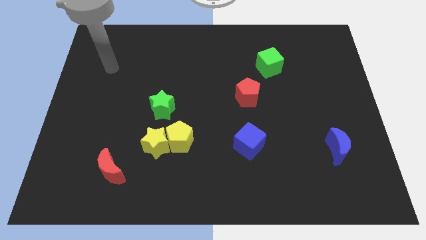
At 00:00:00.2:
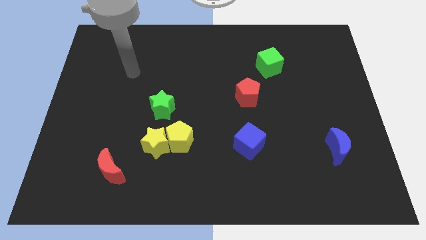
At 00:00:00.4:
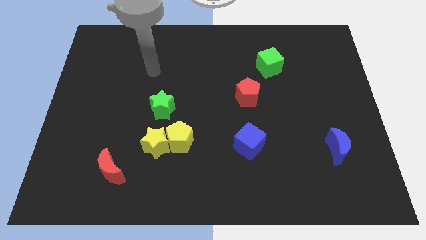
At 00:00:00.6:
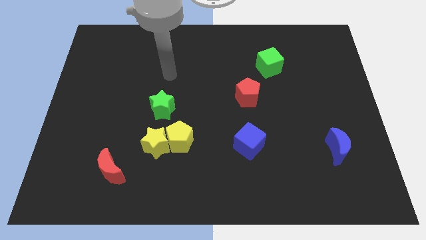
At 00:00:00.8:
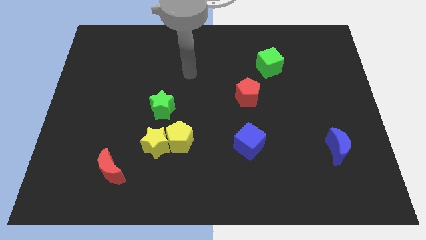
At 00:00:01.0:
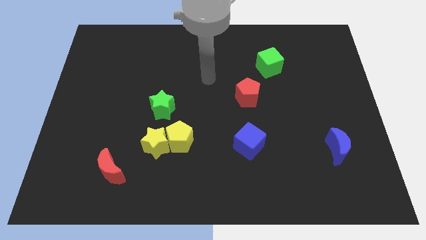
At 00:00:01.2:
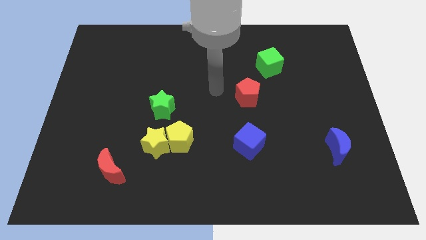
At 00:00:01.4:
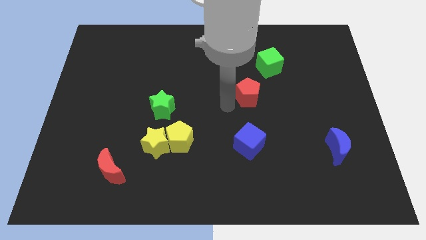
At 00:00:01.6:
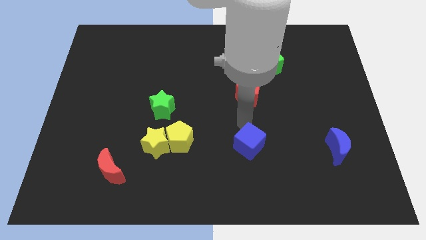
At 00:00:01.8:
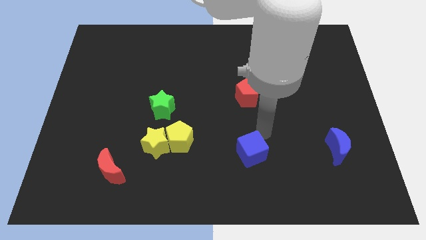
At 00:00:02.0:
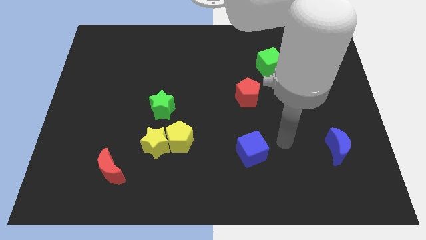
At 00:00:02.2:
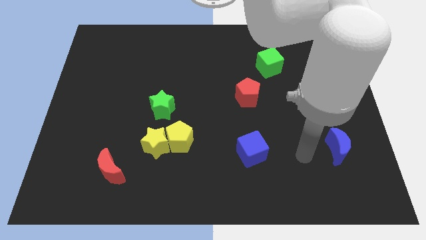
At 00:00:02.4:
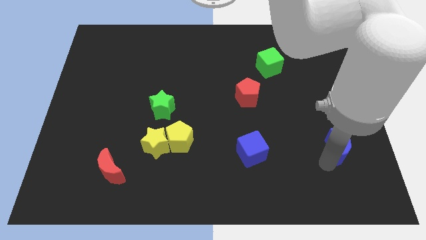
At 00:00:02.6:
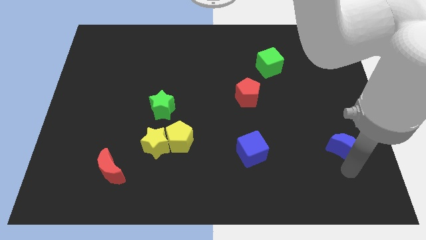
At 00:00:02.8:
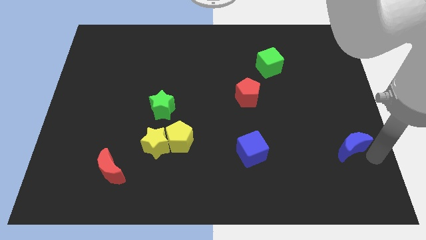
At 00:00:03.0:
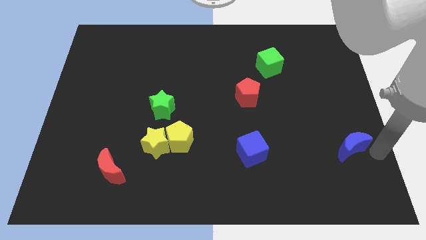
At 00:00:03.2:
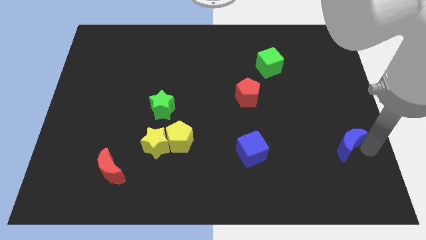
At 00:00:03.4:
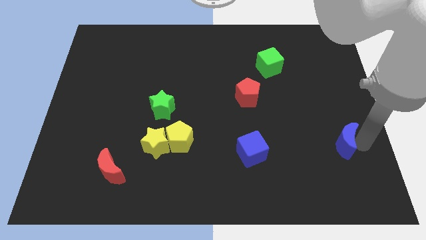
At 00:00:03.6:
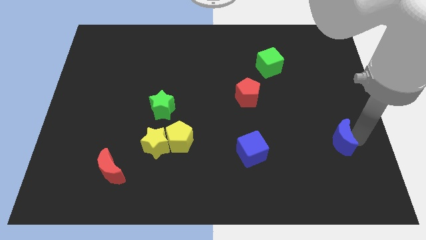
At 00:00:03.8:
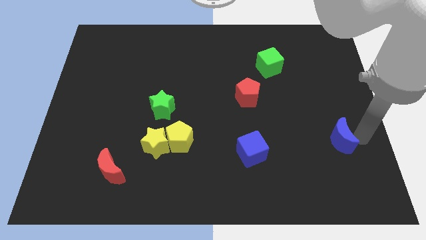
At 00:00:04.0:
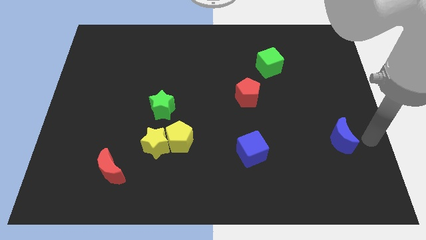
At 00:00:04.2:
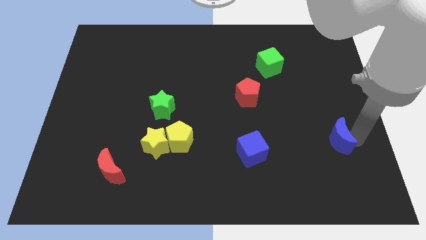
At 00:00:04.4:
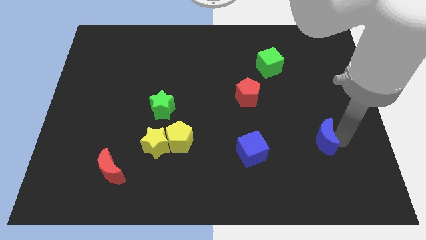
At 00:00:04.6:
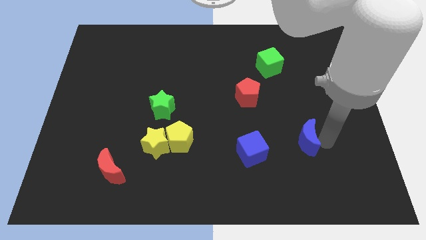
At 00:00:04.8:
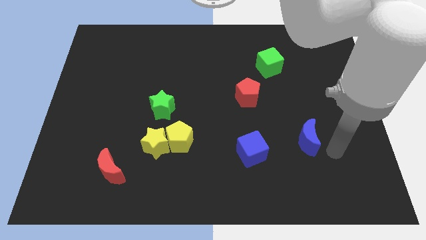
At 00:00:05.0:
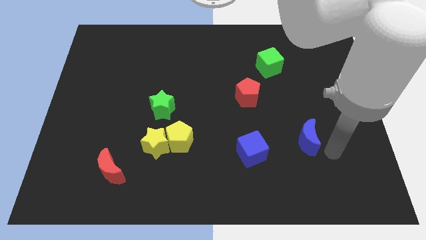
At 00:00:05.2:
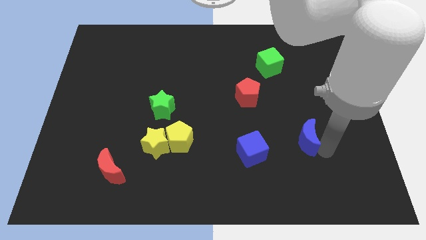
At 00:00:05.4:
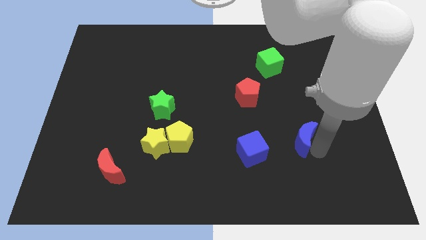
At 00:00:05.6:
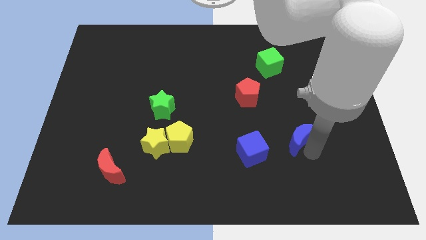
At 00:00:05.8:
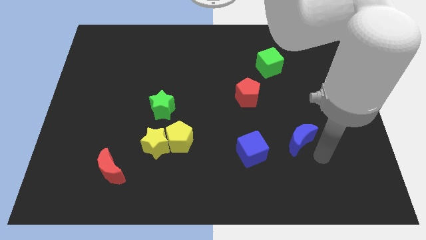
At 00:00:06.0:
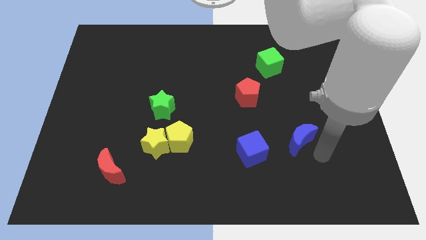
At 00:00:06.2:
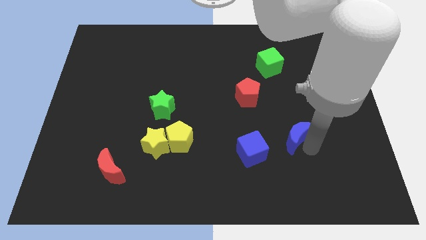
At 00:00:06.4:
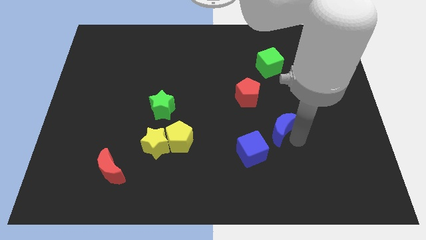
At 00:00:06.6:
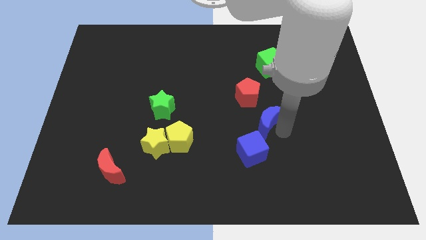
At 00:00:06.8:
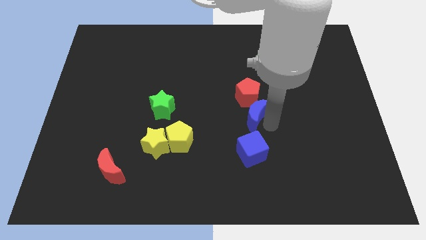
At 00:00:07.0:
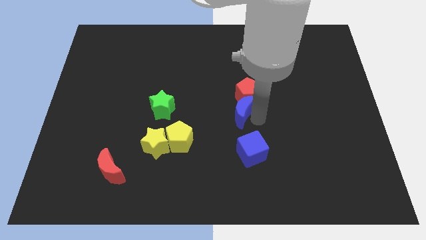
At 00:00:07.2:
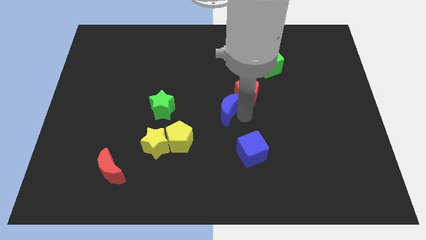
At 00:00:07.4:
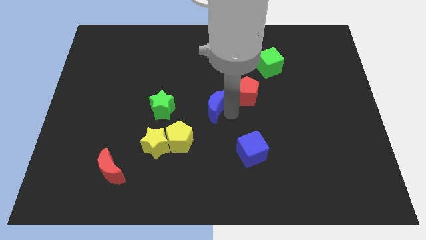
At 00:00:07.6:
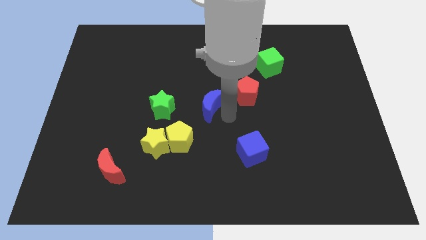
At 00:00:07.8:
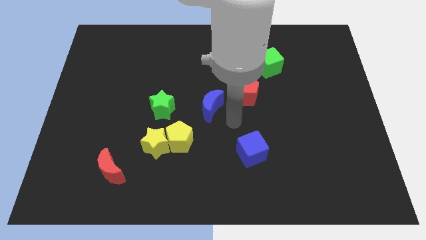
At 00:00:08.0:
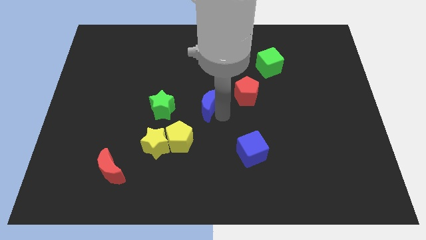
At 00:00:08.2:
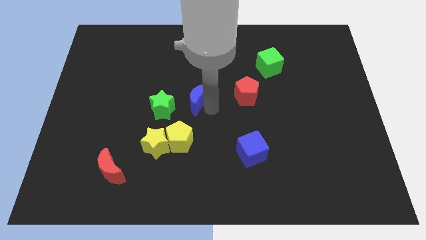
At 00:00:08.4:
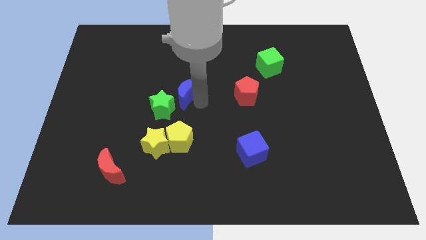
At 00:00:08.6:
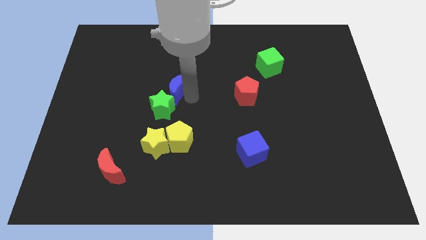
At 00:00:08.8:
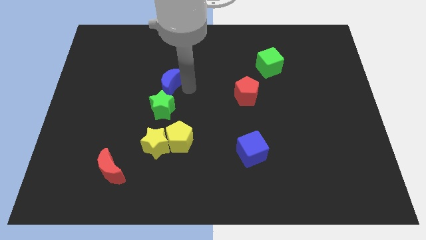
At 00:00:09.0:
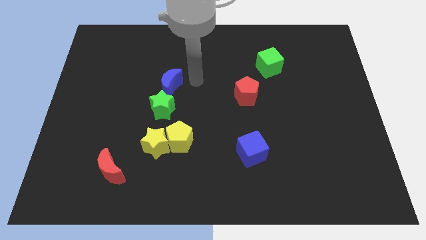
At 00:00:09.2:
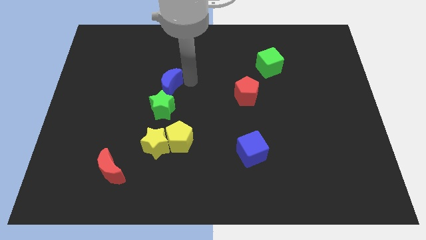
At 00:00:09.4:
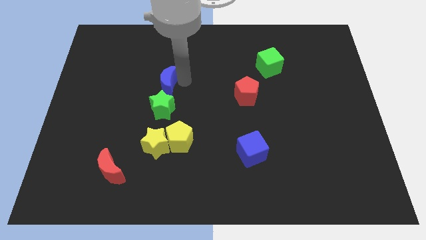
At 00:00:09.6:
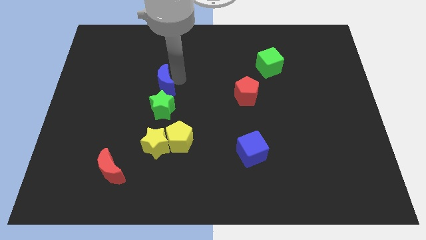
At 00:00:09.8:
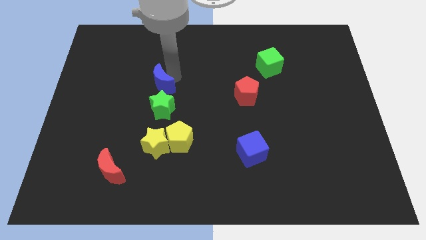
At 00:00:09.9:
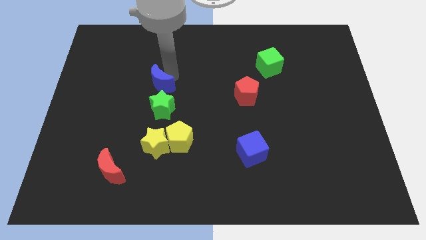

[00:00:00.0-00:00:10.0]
push the blue moon to the top left side of the green star
